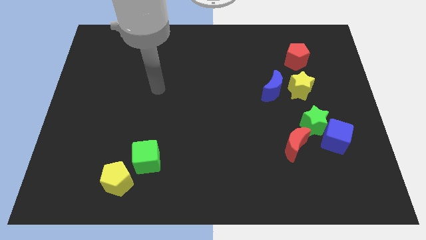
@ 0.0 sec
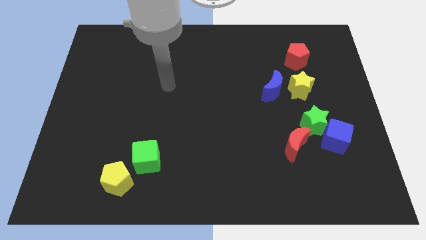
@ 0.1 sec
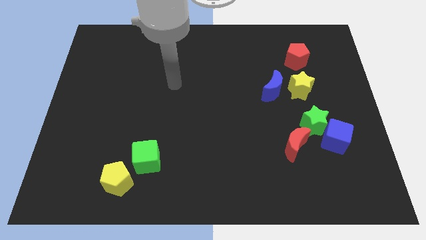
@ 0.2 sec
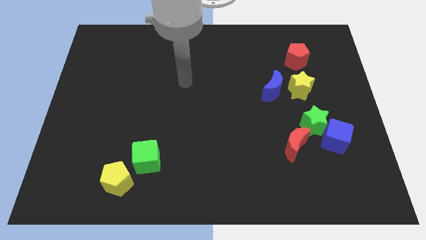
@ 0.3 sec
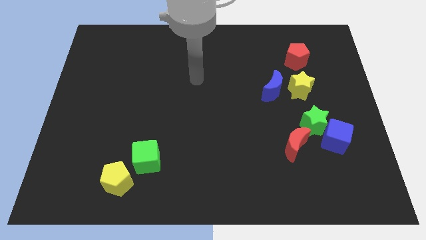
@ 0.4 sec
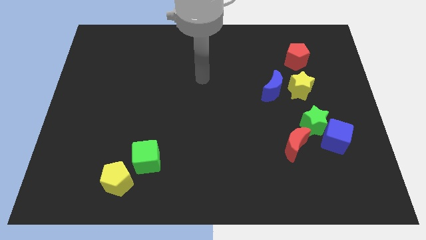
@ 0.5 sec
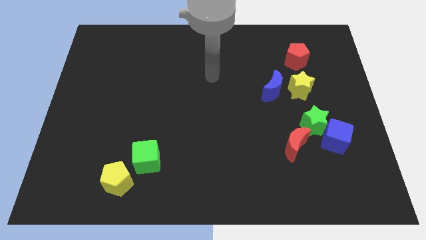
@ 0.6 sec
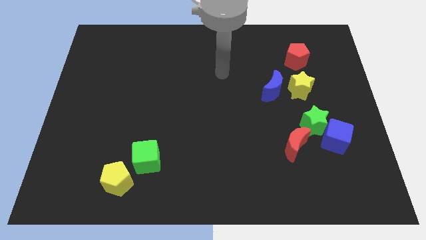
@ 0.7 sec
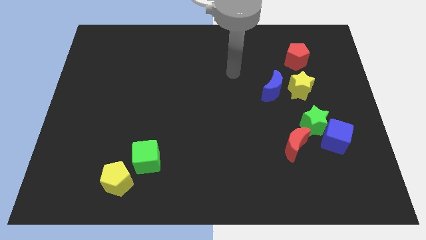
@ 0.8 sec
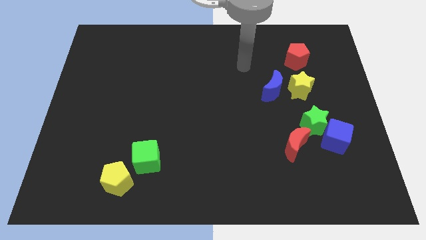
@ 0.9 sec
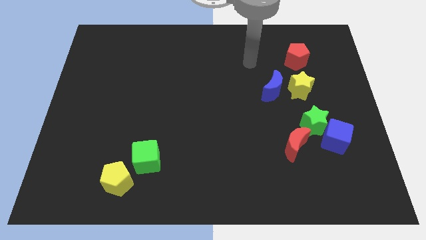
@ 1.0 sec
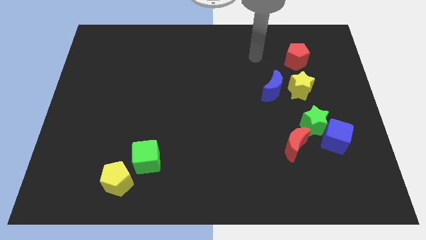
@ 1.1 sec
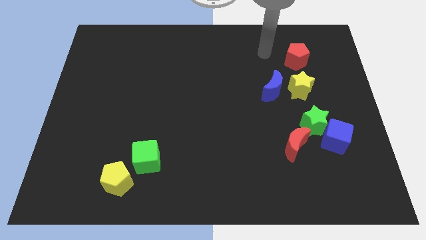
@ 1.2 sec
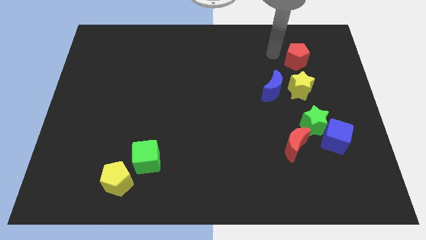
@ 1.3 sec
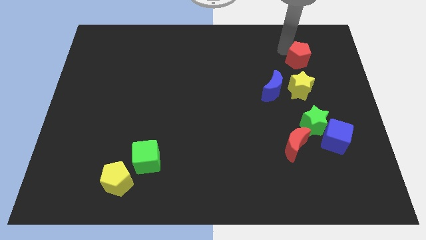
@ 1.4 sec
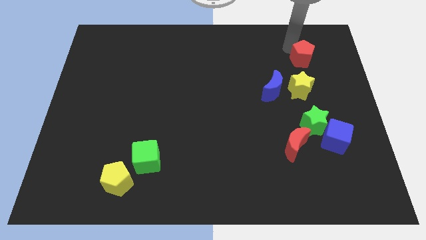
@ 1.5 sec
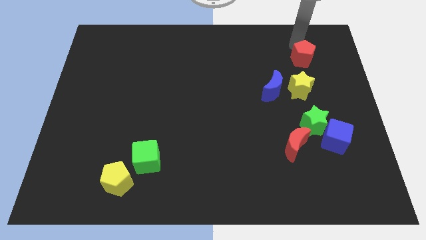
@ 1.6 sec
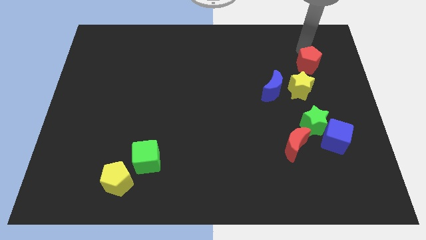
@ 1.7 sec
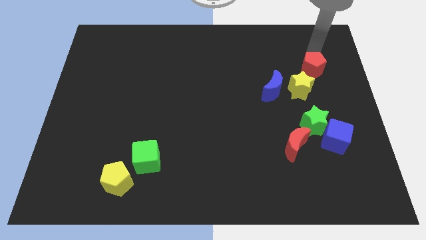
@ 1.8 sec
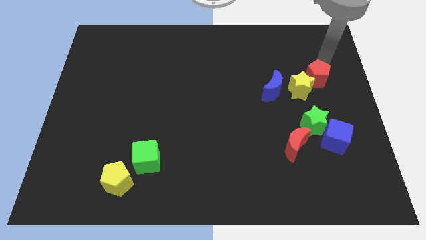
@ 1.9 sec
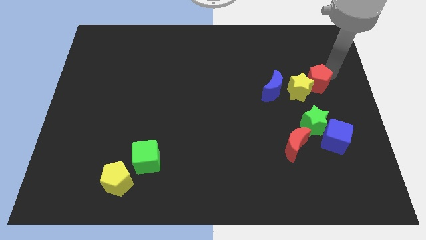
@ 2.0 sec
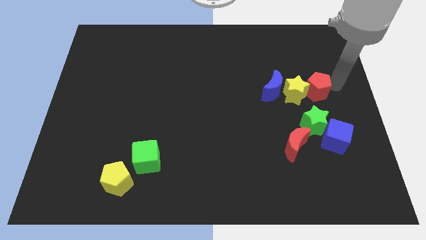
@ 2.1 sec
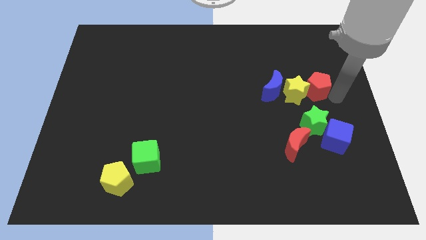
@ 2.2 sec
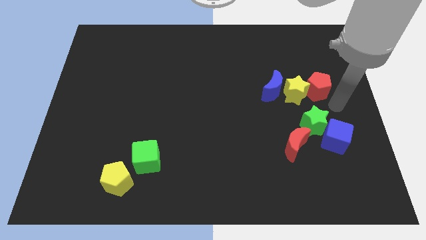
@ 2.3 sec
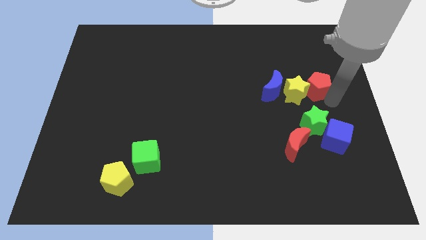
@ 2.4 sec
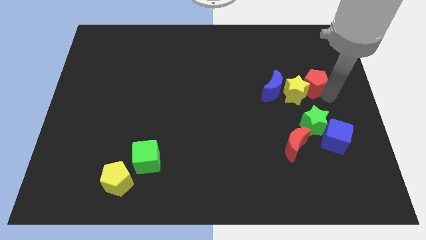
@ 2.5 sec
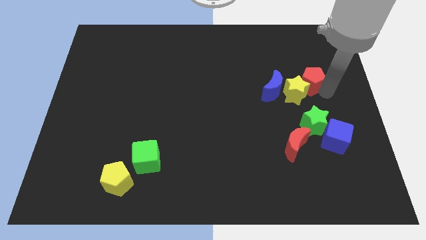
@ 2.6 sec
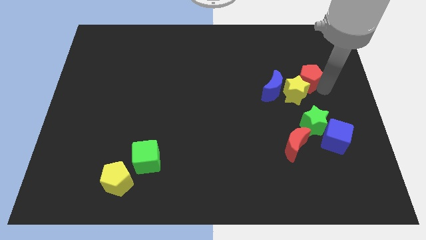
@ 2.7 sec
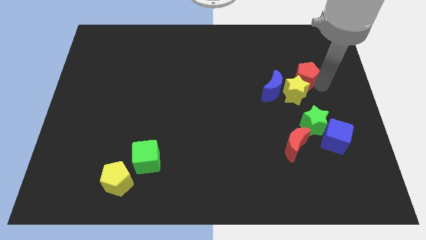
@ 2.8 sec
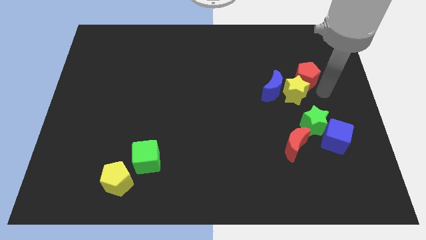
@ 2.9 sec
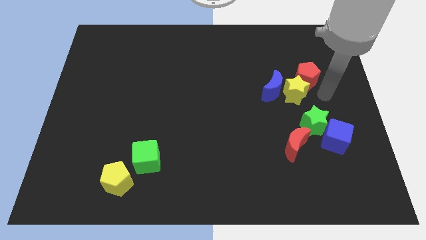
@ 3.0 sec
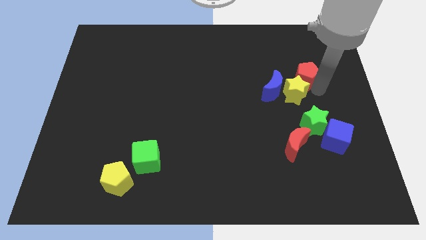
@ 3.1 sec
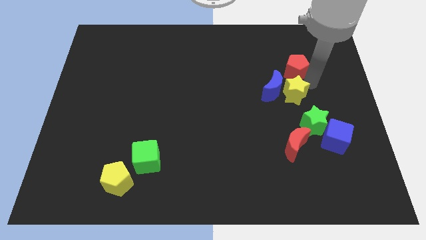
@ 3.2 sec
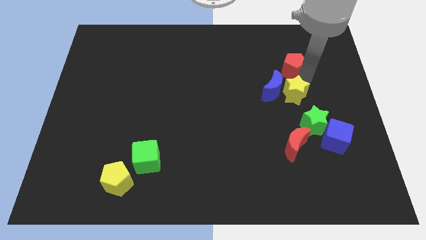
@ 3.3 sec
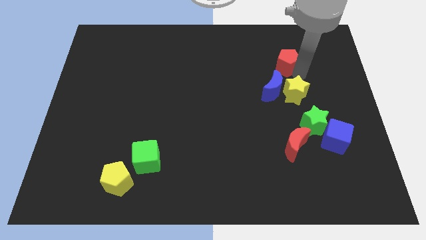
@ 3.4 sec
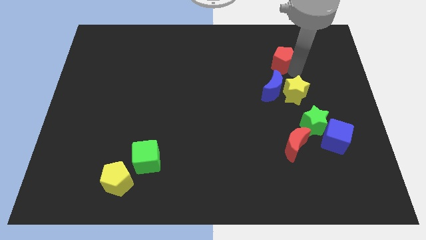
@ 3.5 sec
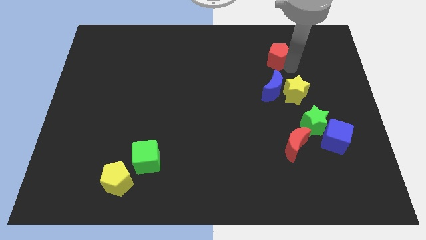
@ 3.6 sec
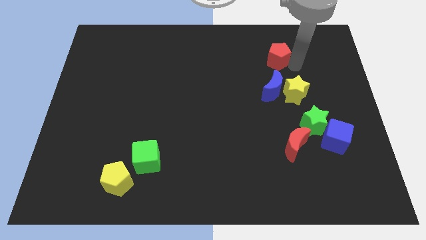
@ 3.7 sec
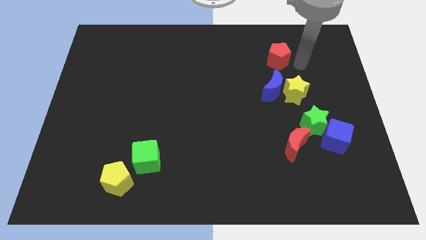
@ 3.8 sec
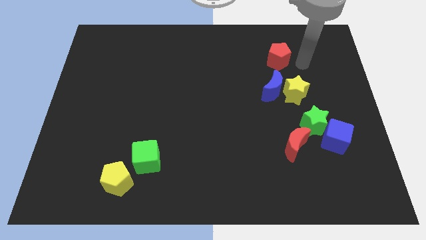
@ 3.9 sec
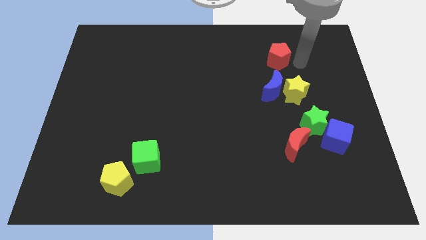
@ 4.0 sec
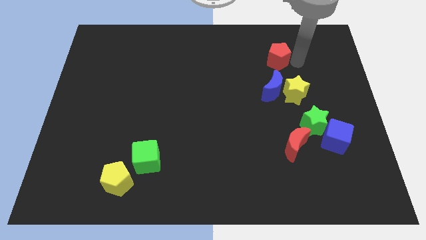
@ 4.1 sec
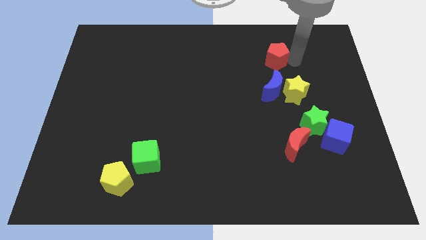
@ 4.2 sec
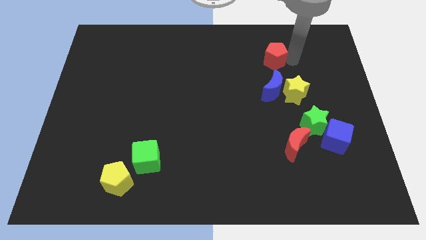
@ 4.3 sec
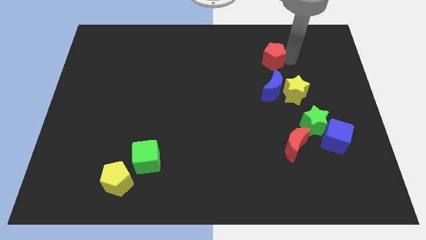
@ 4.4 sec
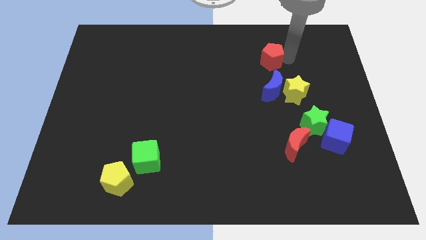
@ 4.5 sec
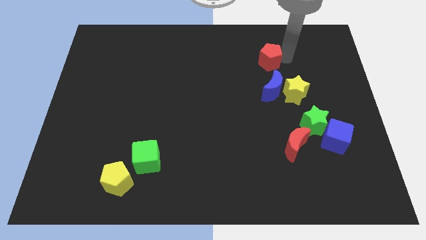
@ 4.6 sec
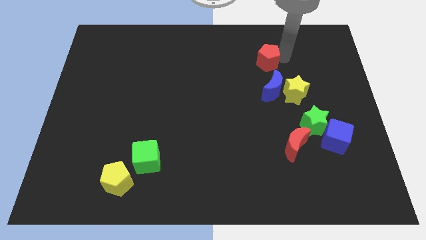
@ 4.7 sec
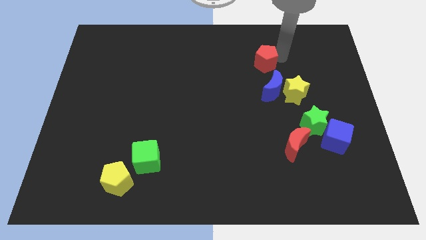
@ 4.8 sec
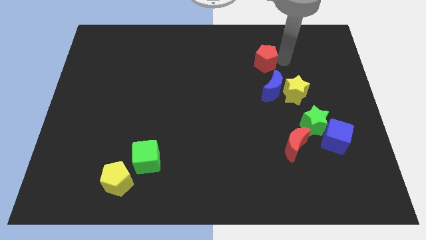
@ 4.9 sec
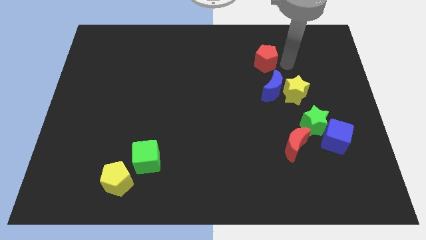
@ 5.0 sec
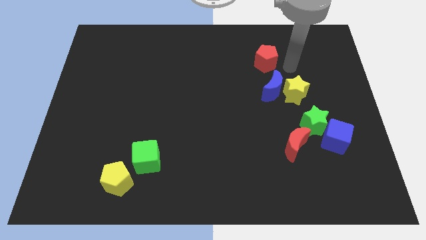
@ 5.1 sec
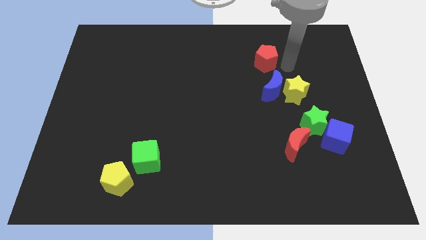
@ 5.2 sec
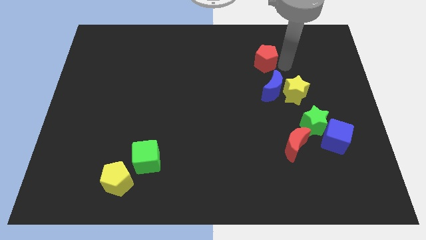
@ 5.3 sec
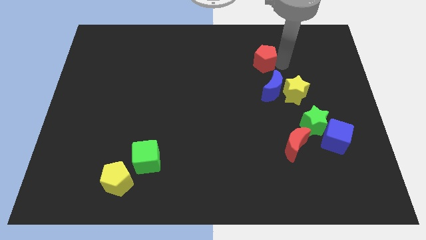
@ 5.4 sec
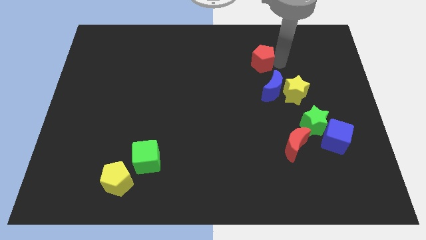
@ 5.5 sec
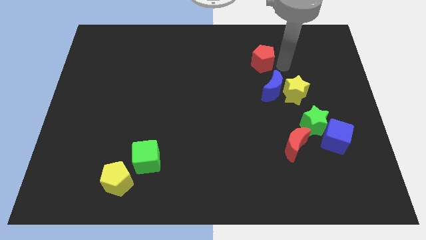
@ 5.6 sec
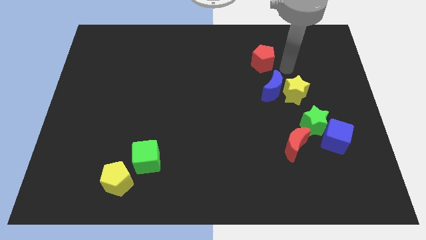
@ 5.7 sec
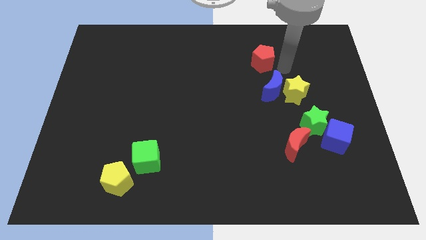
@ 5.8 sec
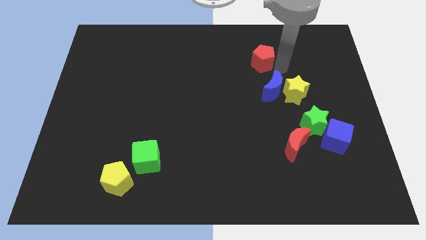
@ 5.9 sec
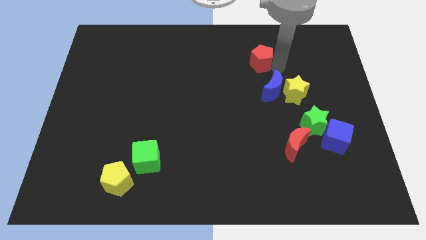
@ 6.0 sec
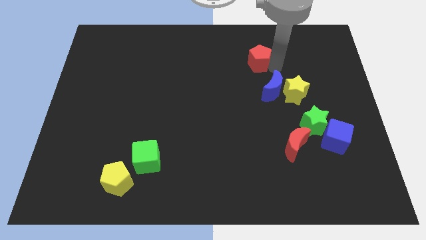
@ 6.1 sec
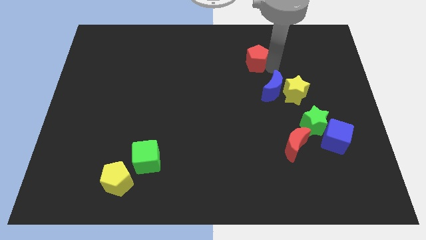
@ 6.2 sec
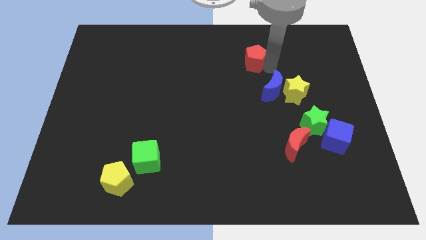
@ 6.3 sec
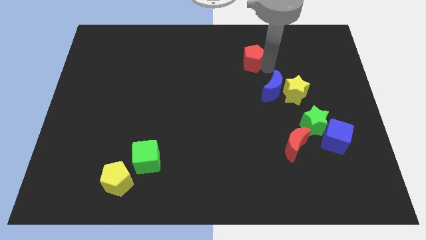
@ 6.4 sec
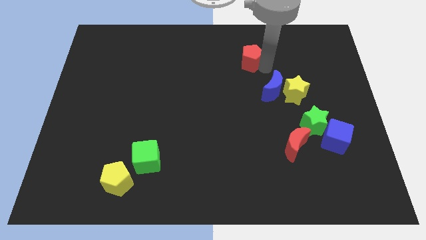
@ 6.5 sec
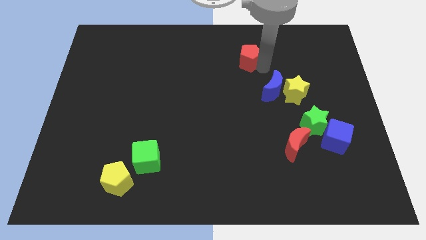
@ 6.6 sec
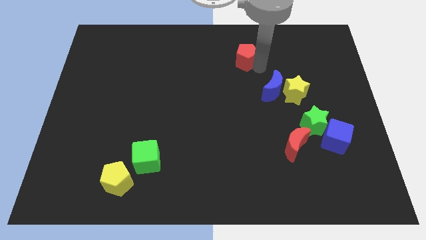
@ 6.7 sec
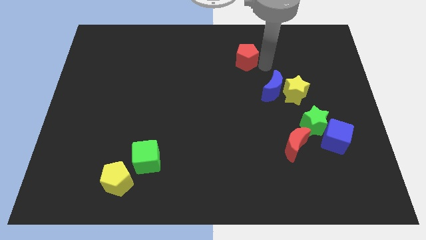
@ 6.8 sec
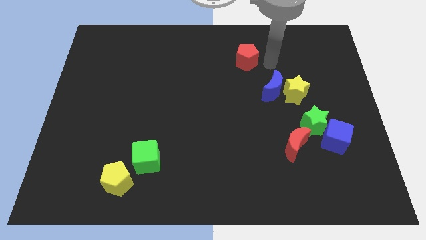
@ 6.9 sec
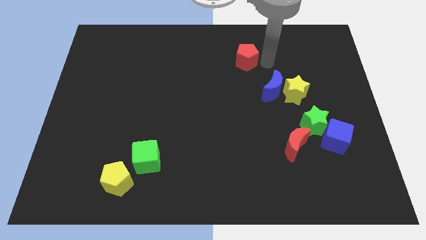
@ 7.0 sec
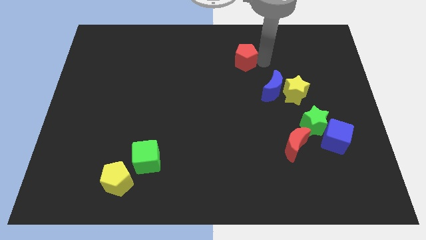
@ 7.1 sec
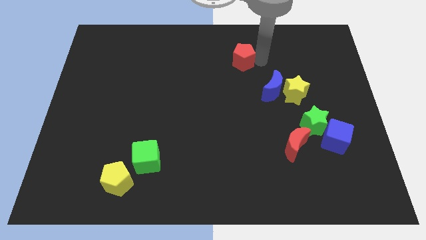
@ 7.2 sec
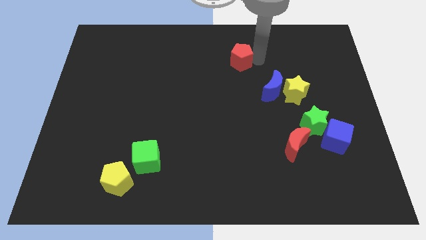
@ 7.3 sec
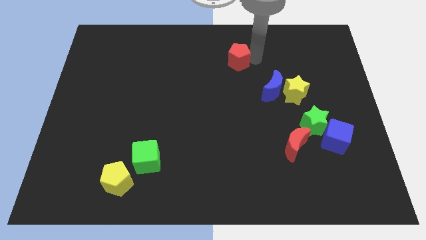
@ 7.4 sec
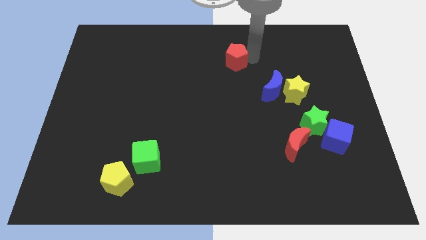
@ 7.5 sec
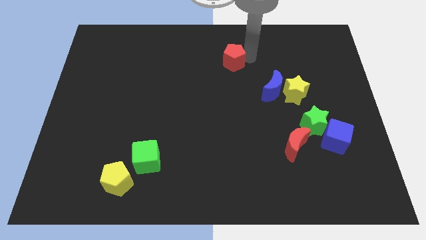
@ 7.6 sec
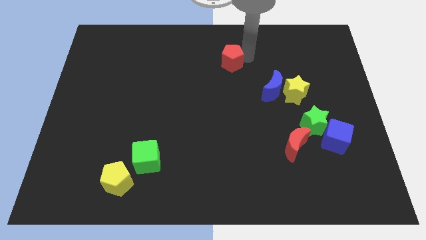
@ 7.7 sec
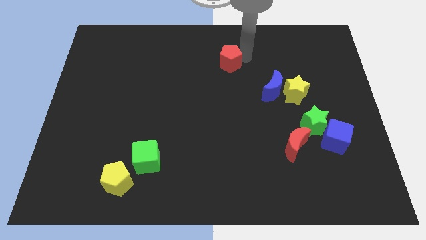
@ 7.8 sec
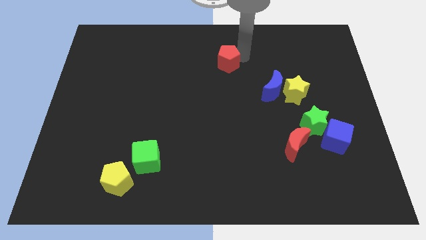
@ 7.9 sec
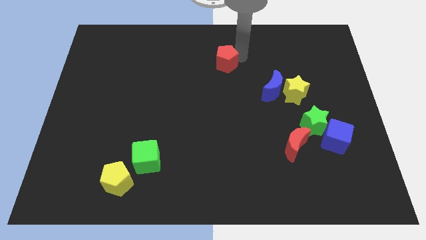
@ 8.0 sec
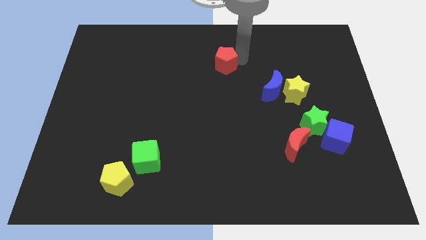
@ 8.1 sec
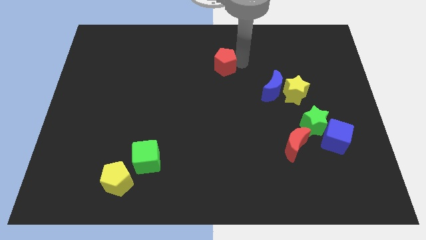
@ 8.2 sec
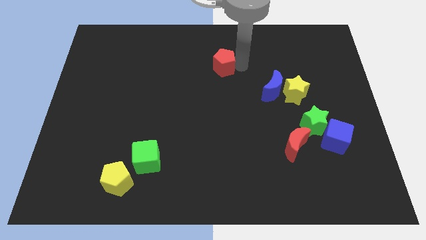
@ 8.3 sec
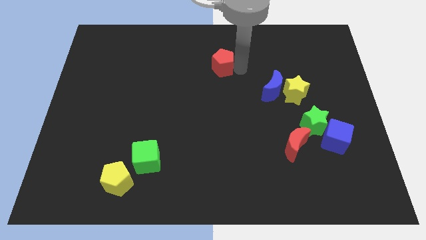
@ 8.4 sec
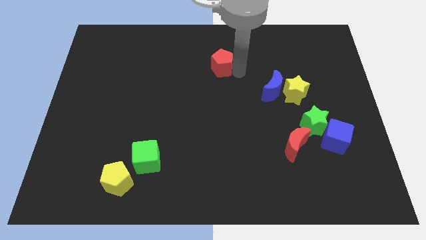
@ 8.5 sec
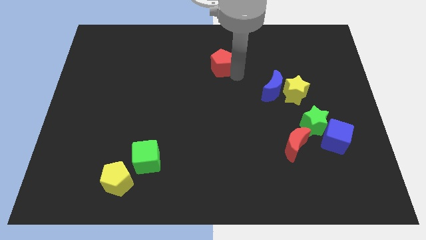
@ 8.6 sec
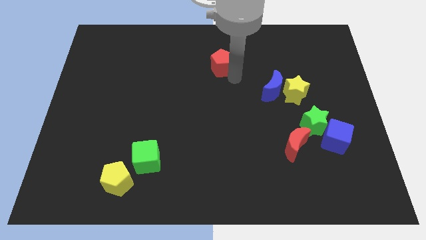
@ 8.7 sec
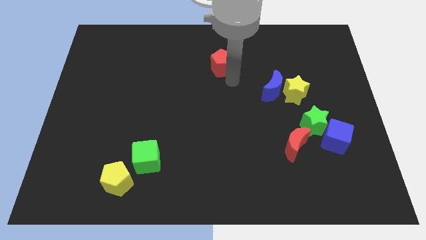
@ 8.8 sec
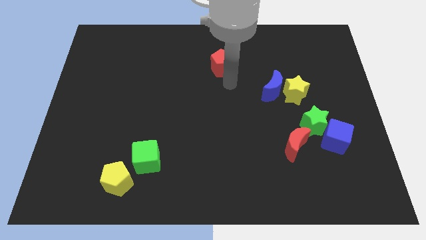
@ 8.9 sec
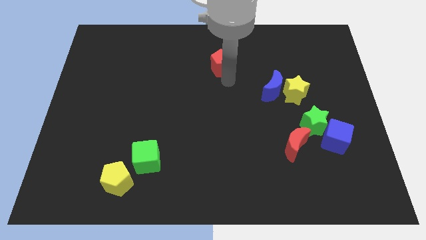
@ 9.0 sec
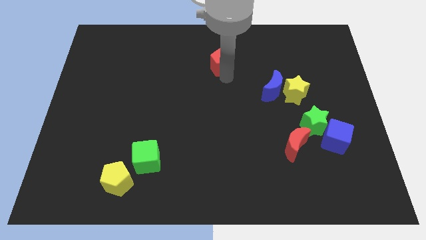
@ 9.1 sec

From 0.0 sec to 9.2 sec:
move the red pentagon to the left
